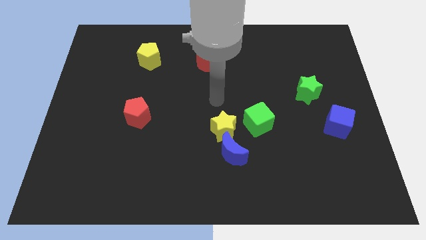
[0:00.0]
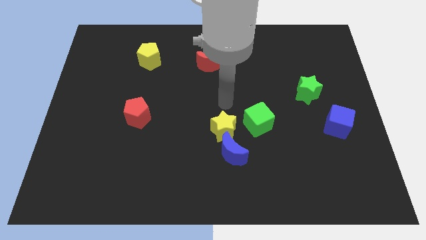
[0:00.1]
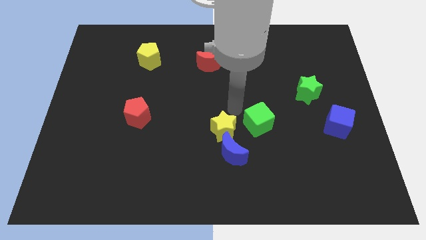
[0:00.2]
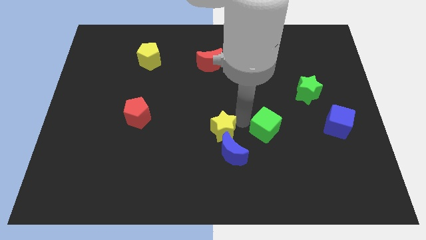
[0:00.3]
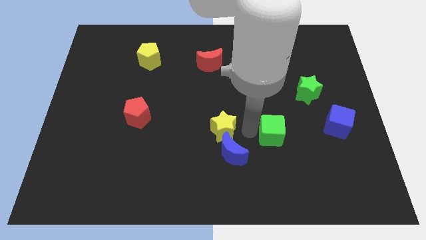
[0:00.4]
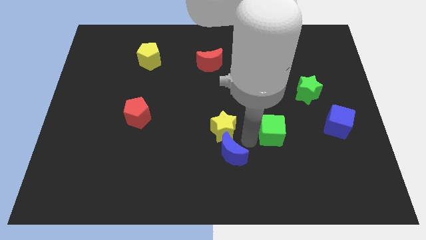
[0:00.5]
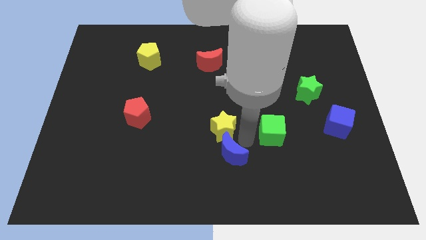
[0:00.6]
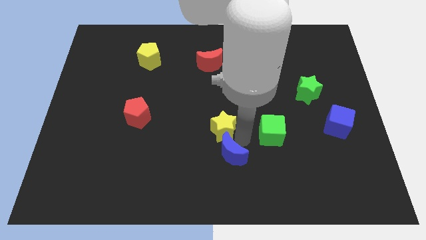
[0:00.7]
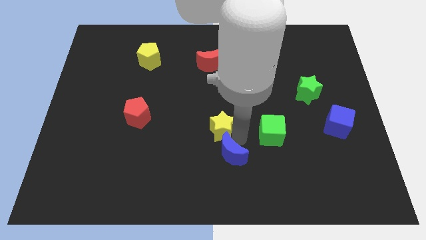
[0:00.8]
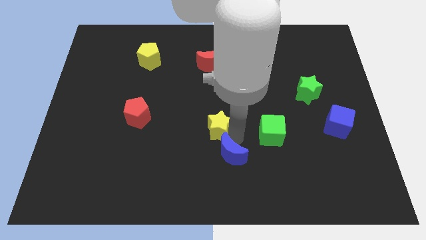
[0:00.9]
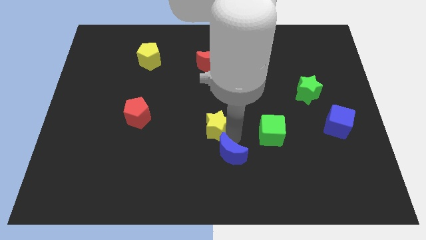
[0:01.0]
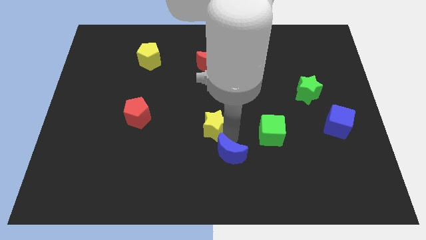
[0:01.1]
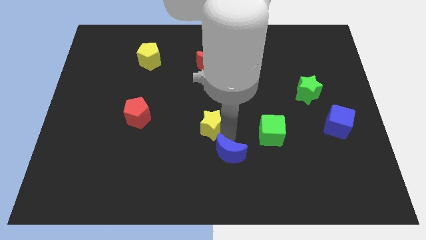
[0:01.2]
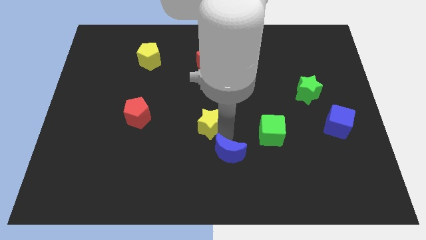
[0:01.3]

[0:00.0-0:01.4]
separate the yellow star from the blue moon and green cube

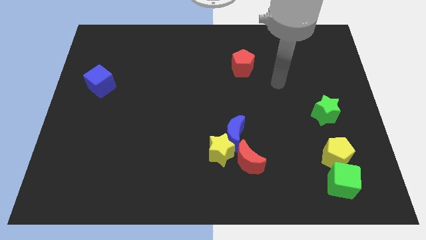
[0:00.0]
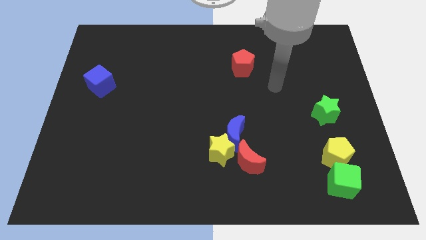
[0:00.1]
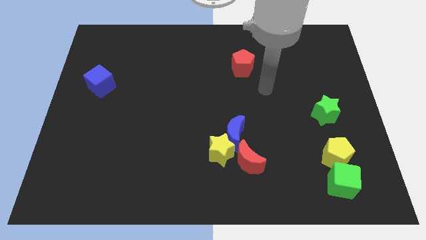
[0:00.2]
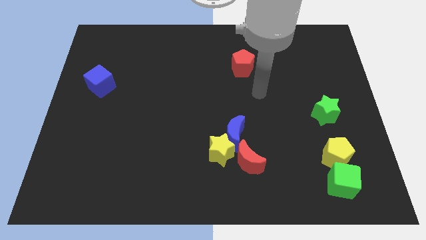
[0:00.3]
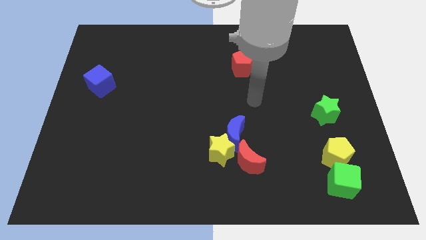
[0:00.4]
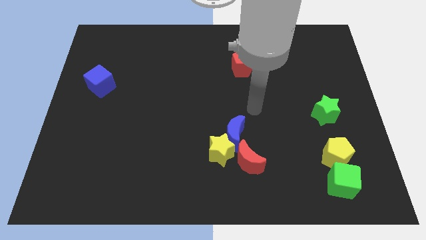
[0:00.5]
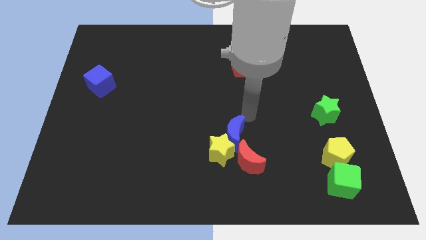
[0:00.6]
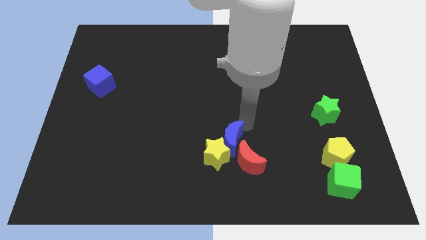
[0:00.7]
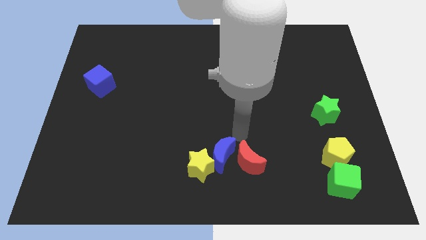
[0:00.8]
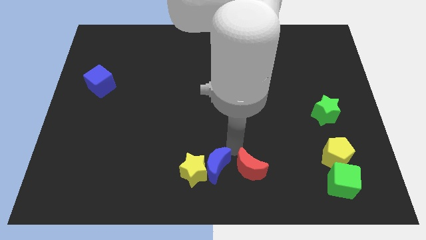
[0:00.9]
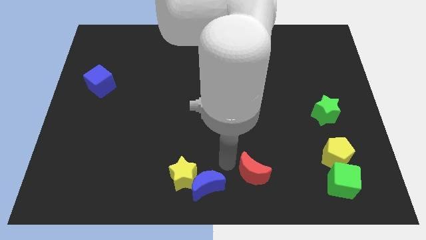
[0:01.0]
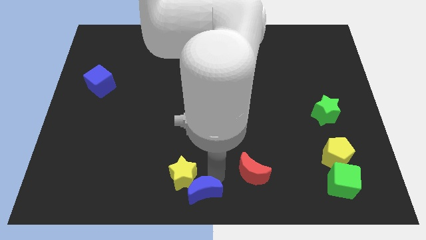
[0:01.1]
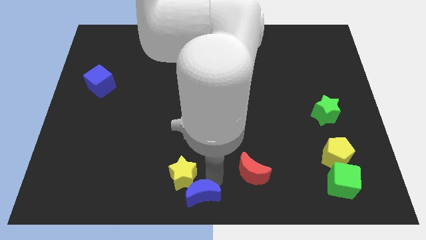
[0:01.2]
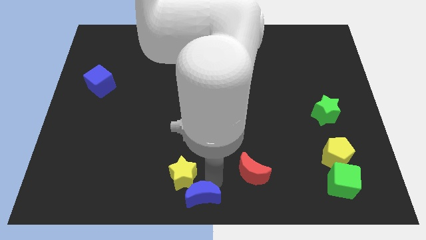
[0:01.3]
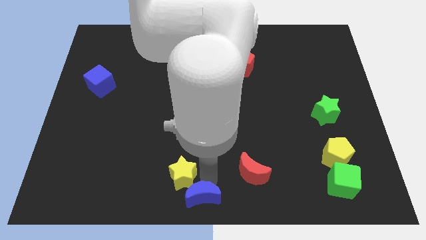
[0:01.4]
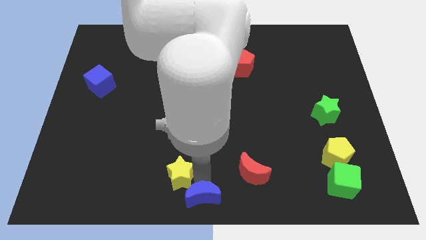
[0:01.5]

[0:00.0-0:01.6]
separate the yellow star from the blue moon and red moon

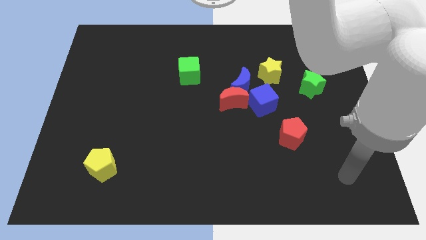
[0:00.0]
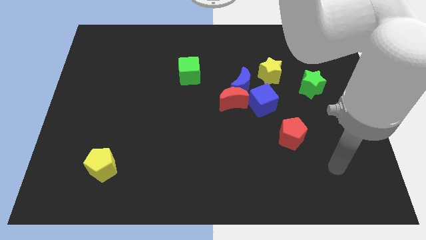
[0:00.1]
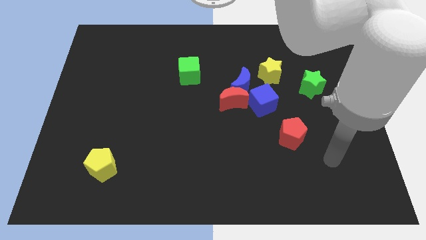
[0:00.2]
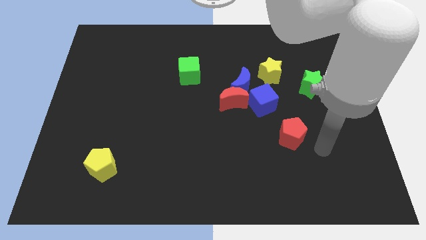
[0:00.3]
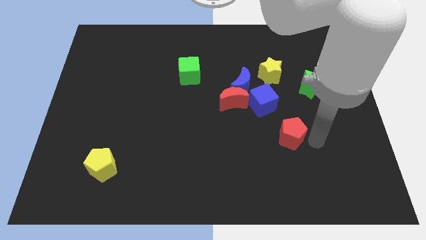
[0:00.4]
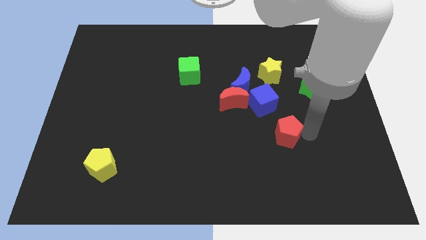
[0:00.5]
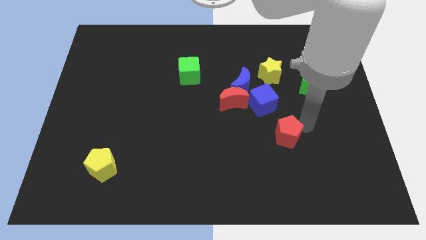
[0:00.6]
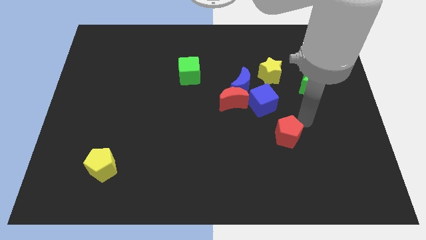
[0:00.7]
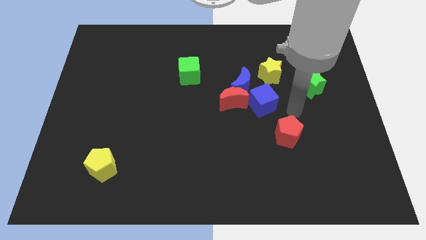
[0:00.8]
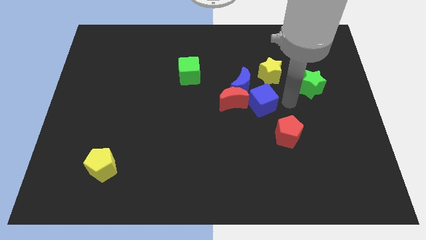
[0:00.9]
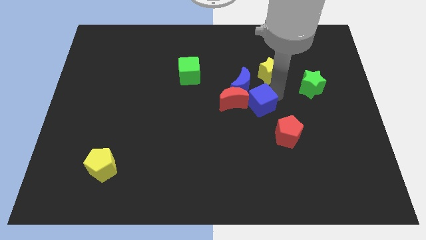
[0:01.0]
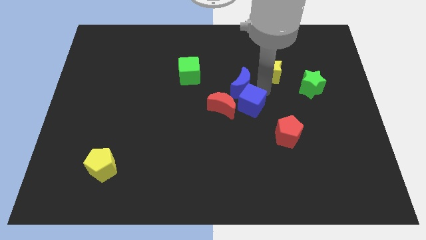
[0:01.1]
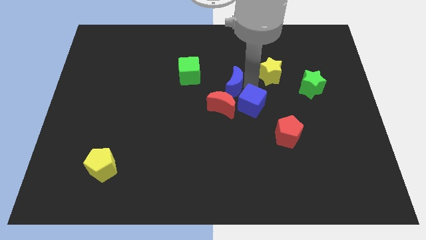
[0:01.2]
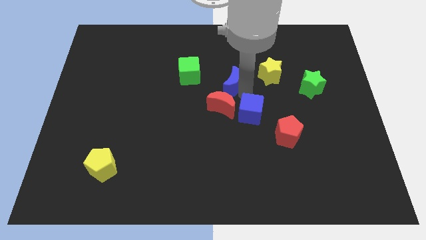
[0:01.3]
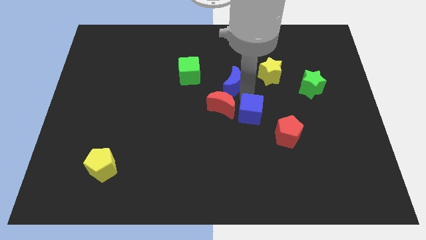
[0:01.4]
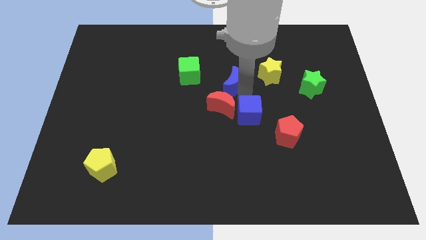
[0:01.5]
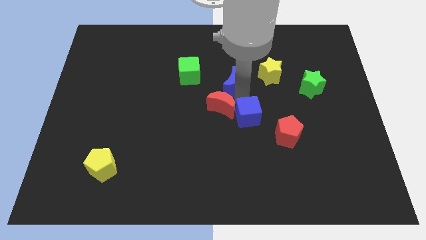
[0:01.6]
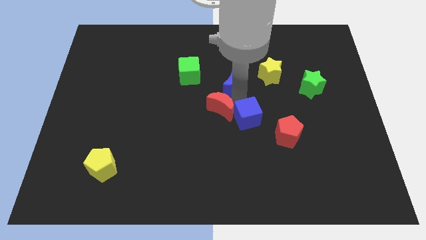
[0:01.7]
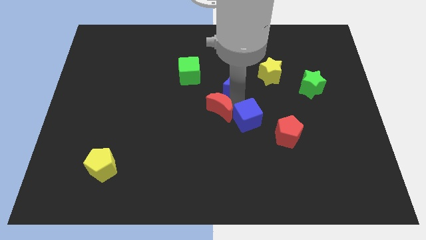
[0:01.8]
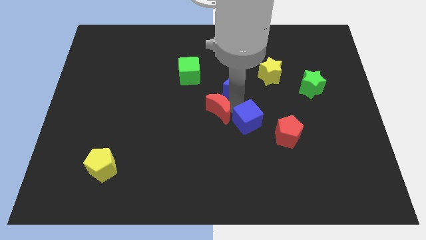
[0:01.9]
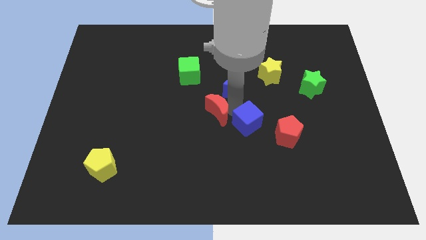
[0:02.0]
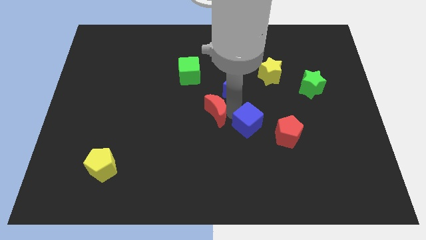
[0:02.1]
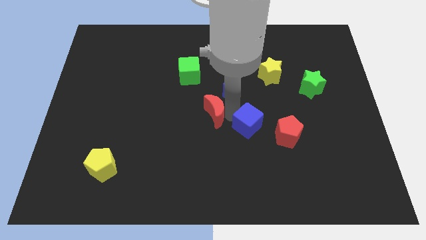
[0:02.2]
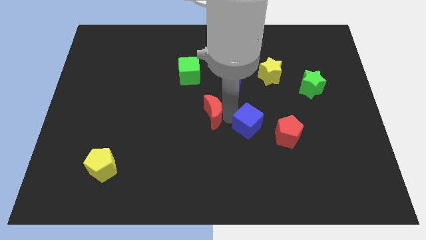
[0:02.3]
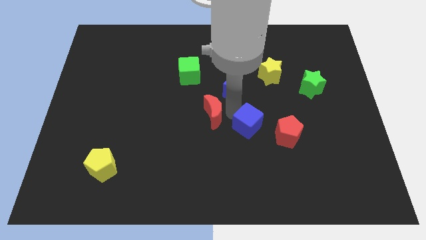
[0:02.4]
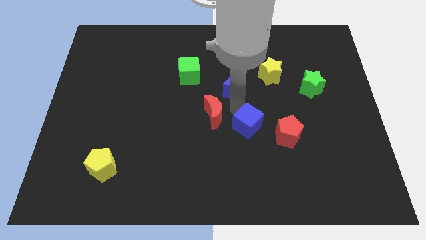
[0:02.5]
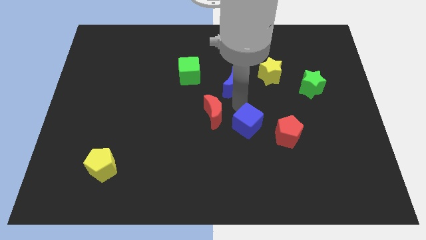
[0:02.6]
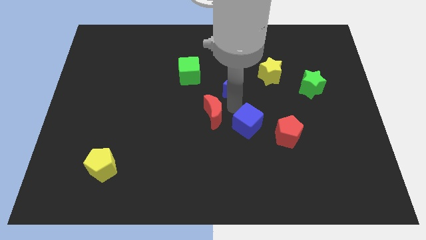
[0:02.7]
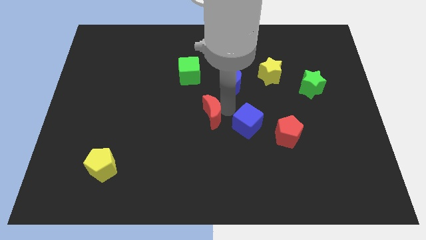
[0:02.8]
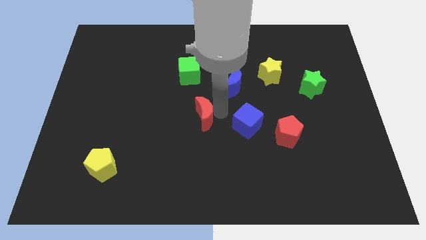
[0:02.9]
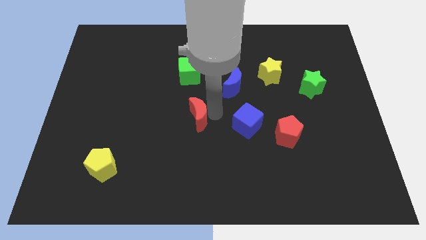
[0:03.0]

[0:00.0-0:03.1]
pull the red moon apart from the blue moon and blue cube

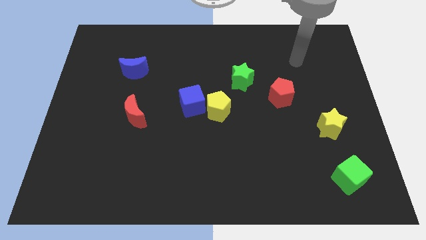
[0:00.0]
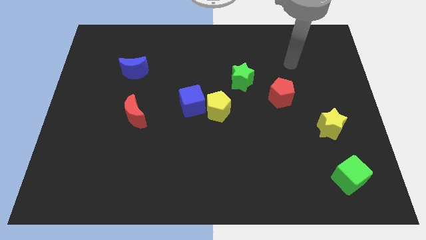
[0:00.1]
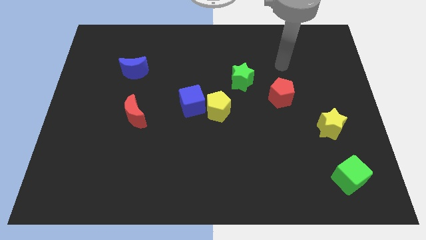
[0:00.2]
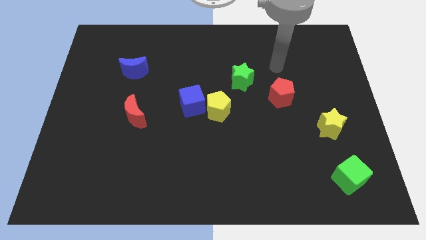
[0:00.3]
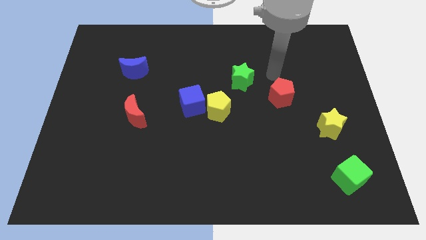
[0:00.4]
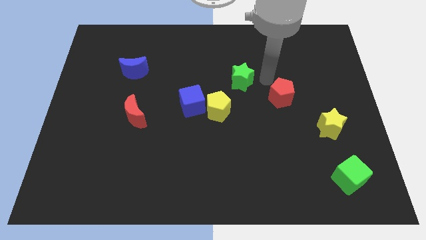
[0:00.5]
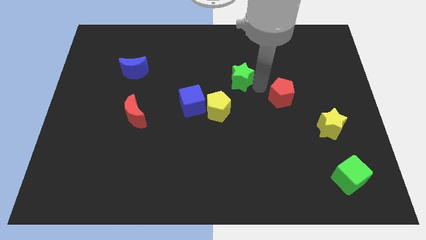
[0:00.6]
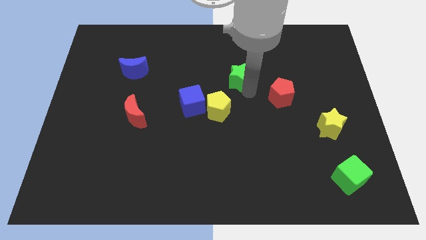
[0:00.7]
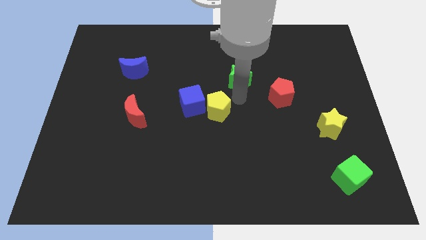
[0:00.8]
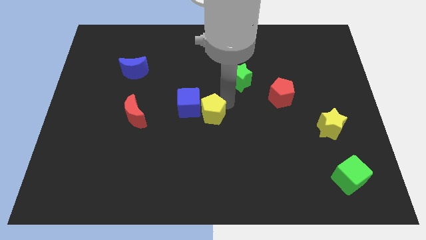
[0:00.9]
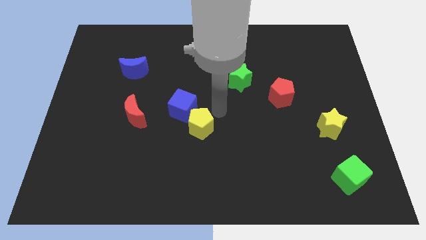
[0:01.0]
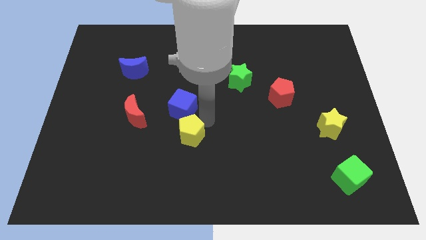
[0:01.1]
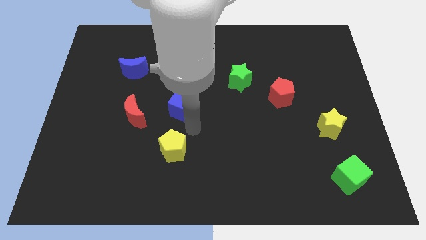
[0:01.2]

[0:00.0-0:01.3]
separate the blue cube from the yellow pentagon

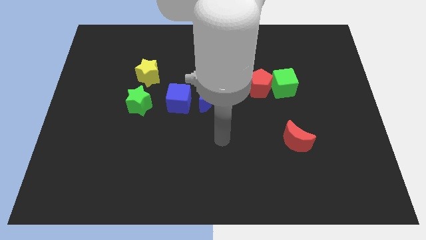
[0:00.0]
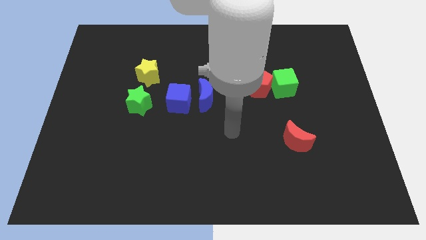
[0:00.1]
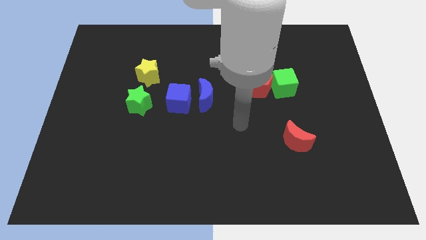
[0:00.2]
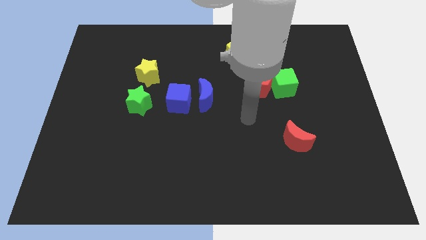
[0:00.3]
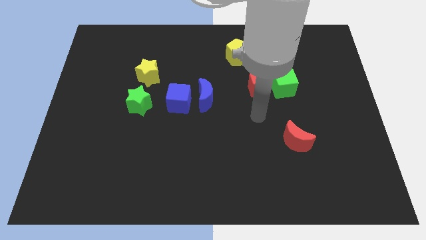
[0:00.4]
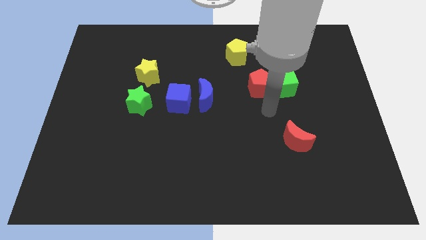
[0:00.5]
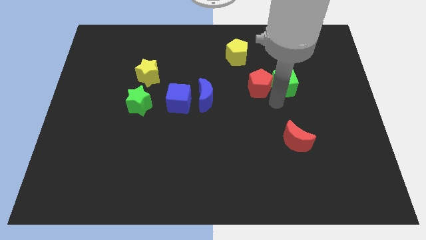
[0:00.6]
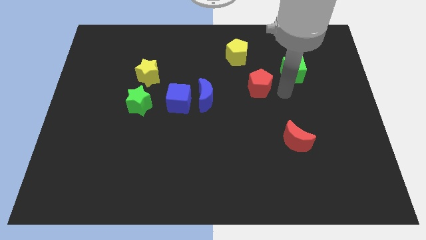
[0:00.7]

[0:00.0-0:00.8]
pull the red pentagon apart from the green cube

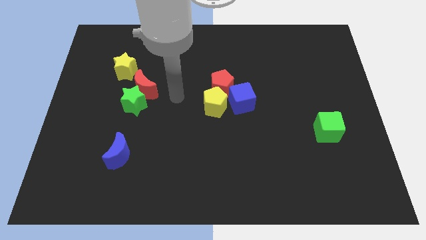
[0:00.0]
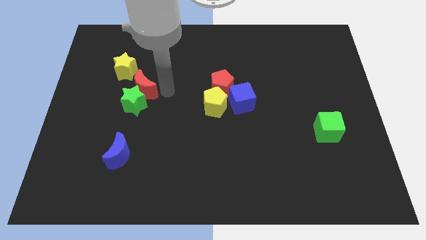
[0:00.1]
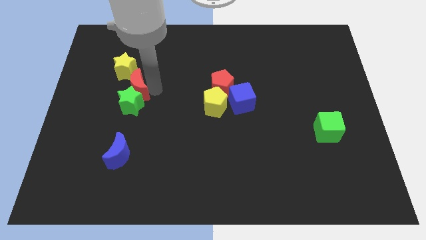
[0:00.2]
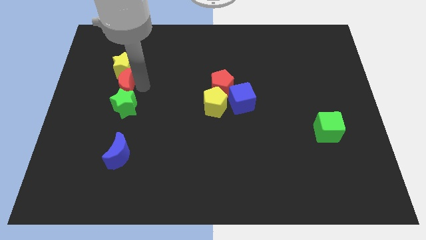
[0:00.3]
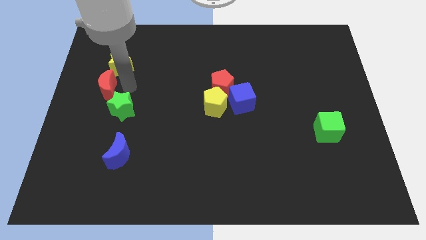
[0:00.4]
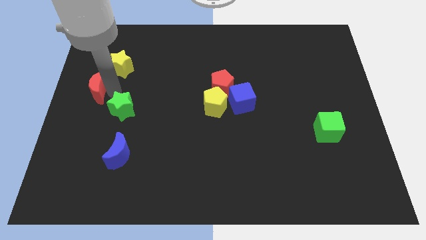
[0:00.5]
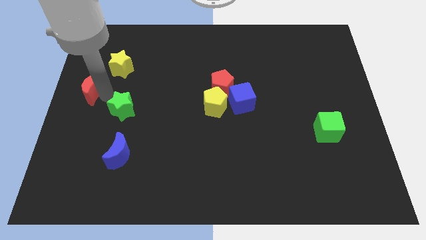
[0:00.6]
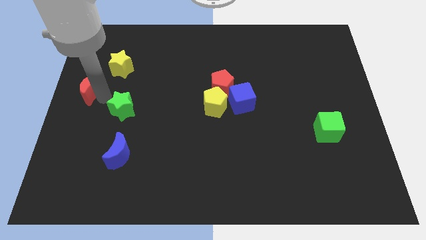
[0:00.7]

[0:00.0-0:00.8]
separate the green star from the red moon

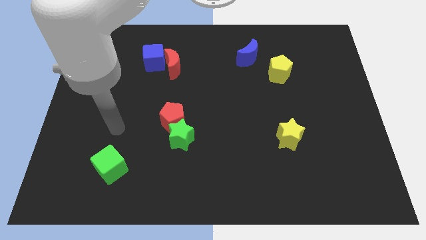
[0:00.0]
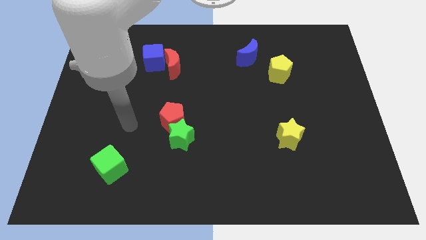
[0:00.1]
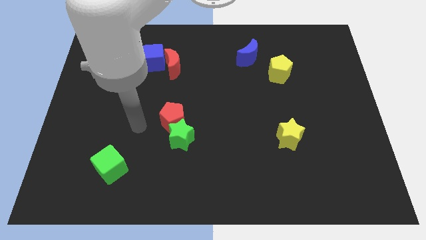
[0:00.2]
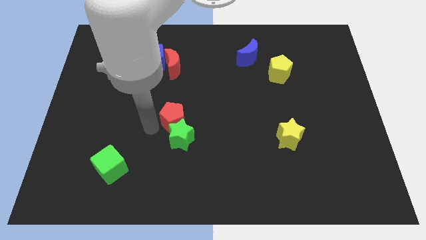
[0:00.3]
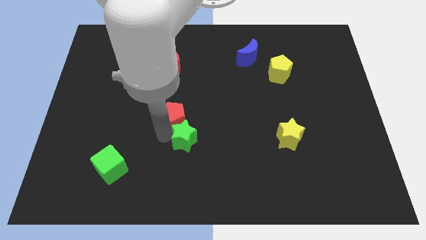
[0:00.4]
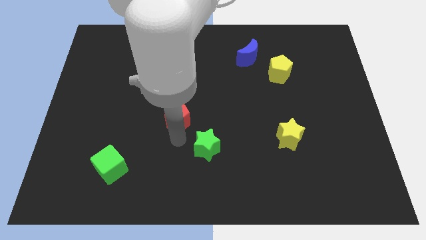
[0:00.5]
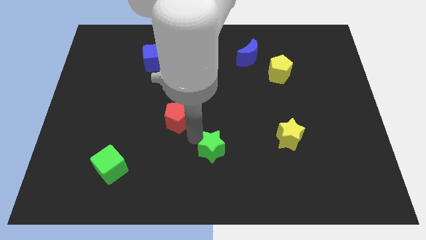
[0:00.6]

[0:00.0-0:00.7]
pull the red pentagon apart from the green star
